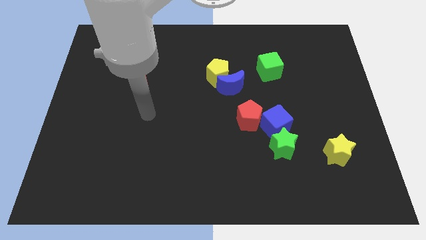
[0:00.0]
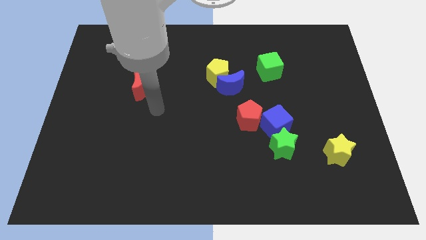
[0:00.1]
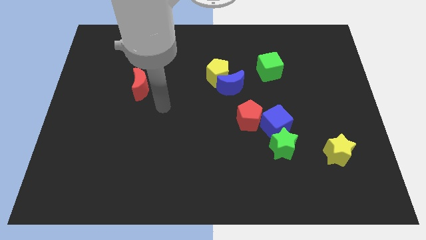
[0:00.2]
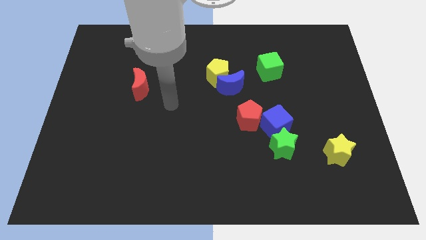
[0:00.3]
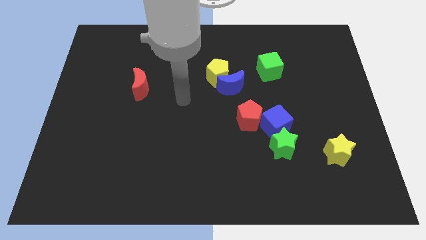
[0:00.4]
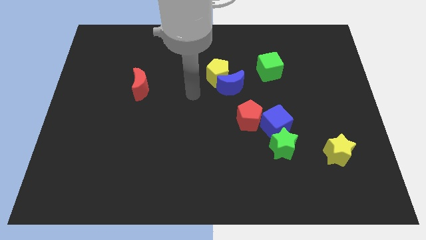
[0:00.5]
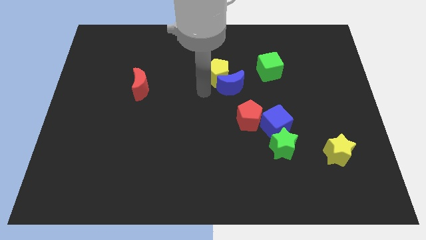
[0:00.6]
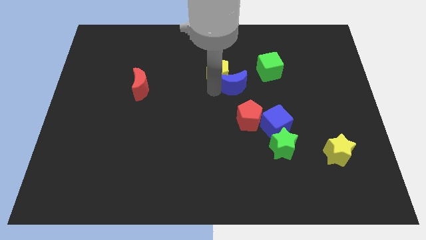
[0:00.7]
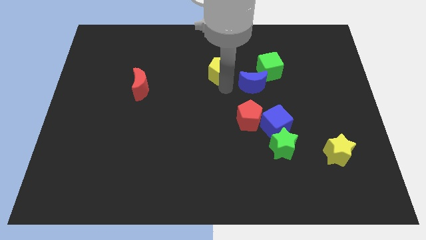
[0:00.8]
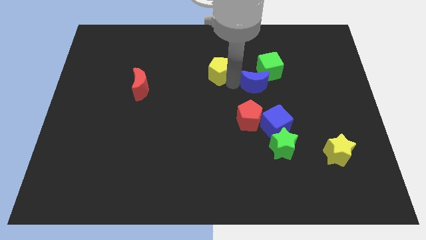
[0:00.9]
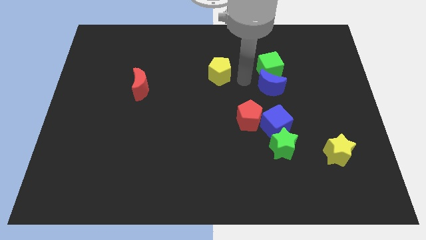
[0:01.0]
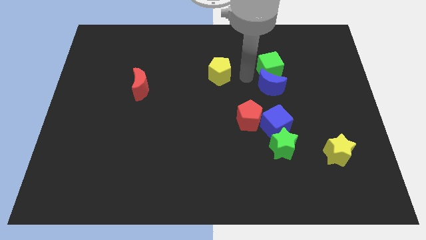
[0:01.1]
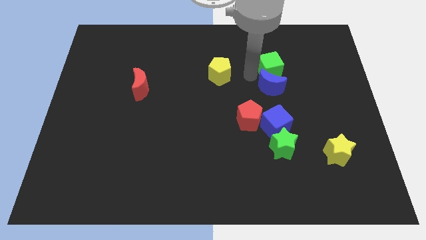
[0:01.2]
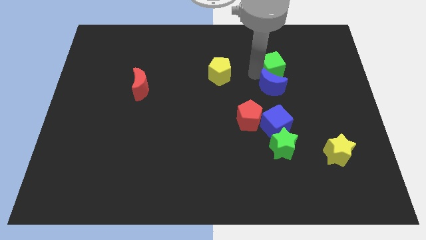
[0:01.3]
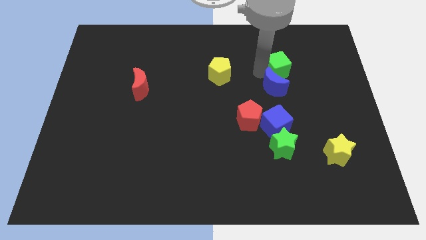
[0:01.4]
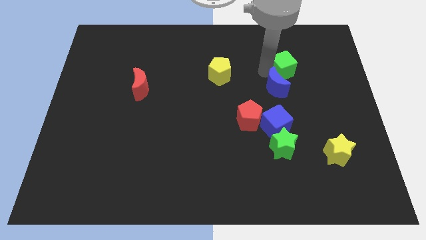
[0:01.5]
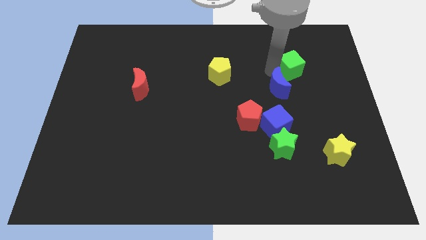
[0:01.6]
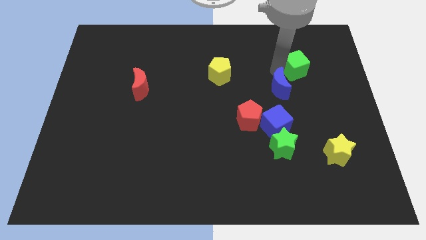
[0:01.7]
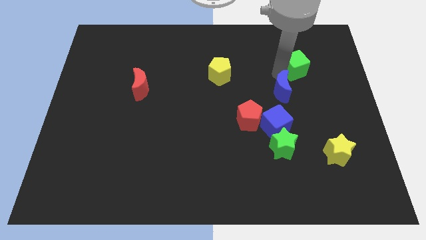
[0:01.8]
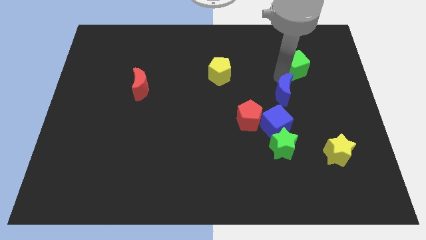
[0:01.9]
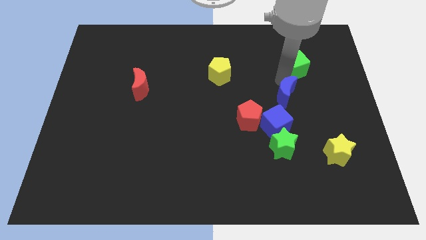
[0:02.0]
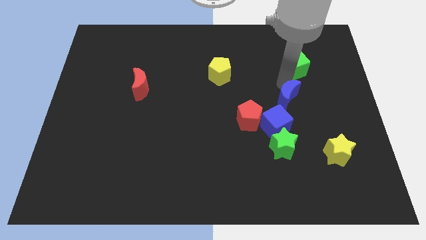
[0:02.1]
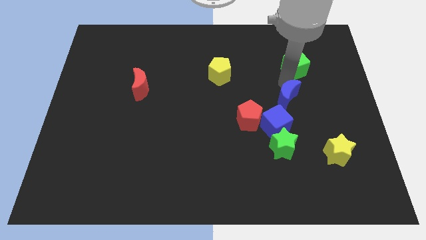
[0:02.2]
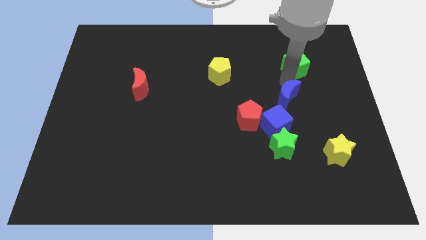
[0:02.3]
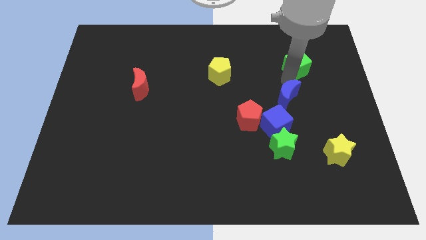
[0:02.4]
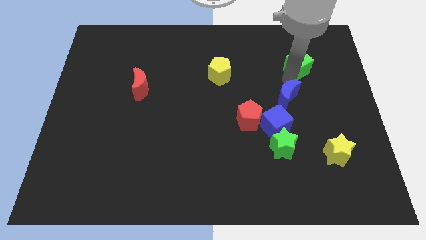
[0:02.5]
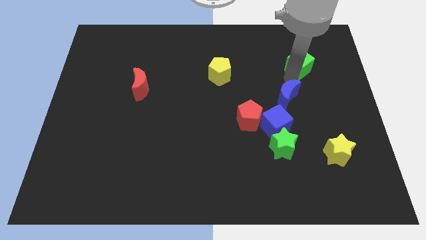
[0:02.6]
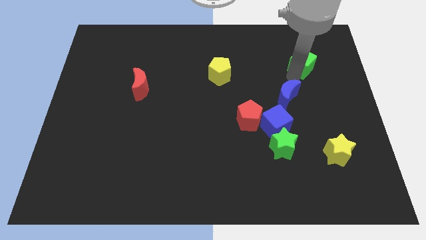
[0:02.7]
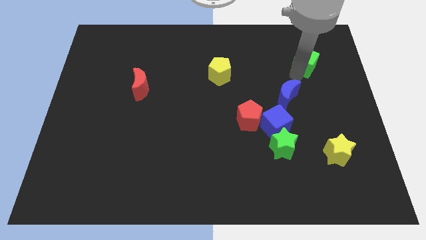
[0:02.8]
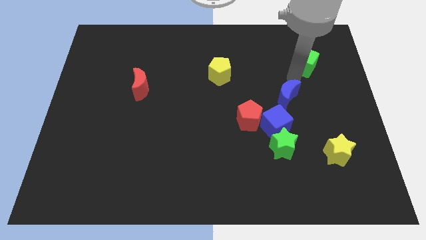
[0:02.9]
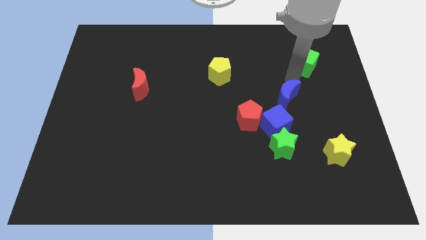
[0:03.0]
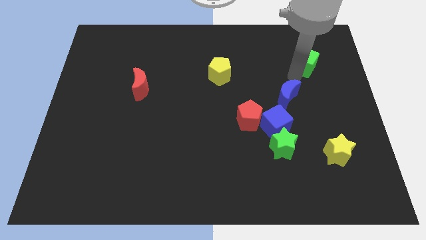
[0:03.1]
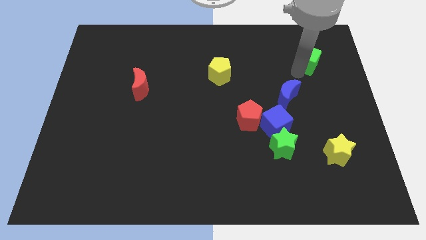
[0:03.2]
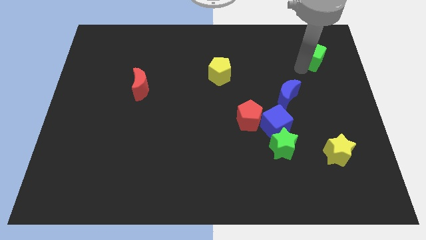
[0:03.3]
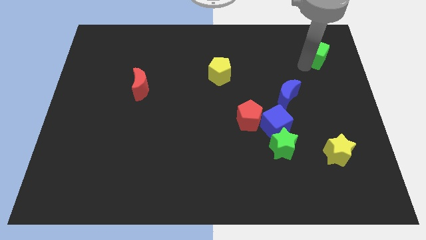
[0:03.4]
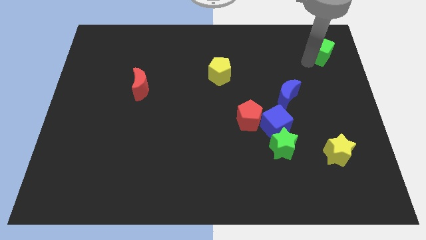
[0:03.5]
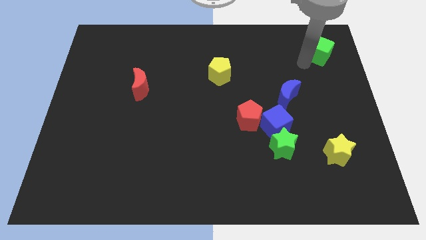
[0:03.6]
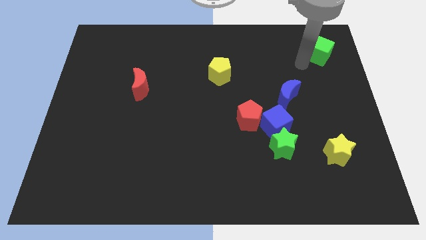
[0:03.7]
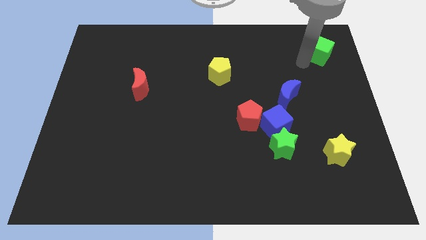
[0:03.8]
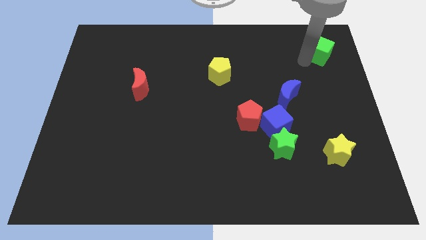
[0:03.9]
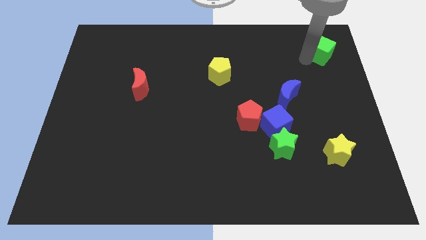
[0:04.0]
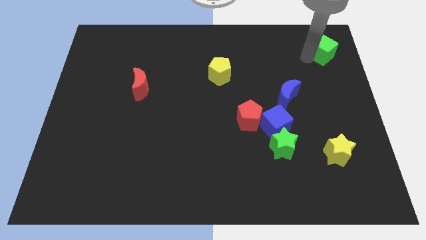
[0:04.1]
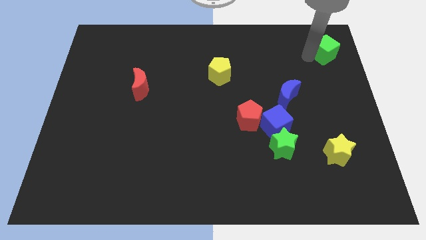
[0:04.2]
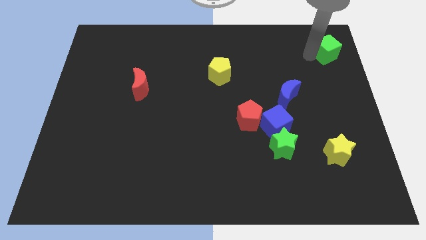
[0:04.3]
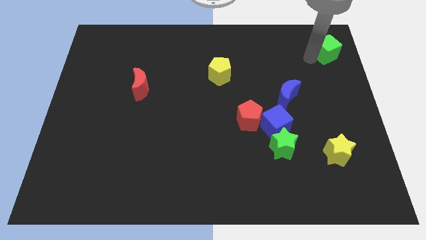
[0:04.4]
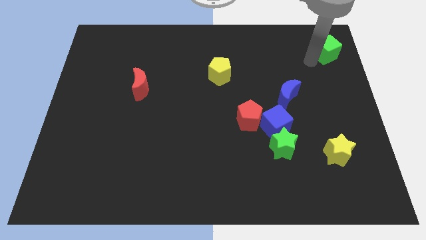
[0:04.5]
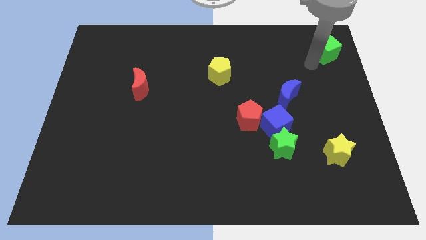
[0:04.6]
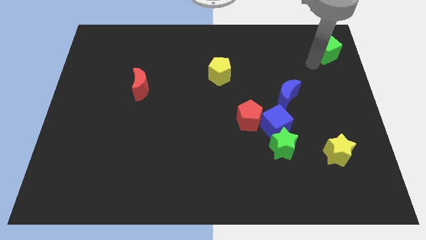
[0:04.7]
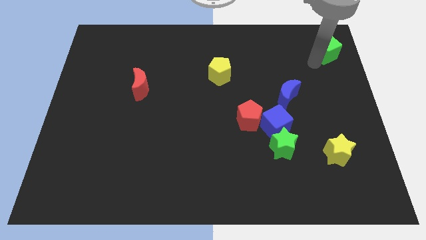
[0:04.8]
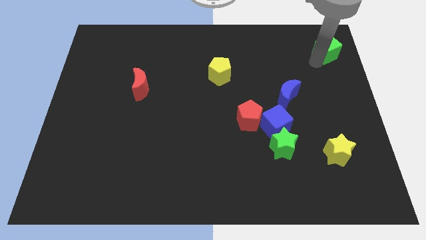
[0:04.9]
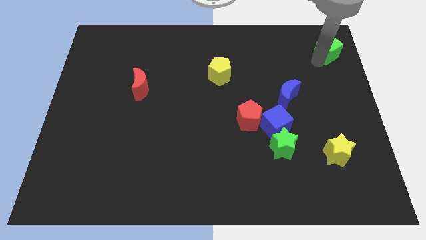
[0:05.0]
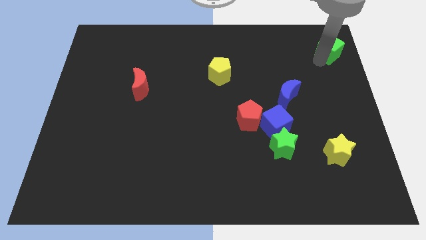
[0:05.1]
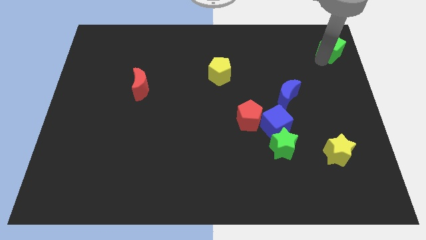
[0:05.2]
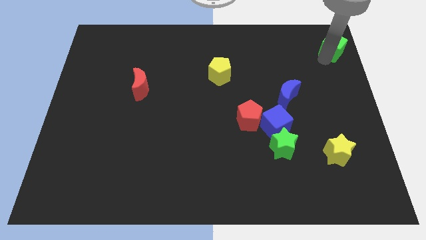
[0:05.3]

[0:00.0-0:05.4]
put the green cube to the top right

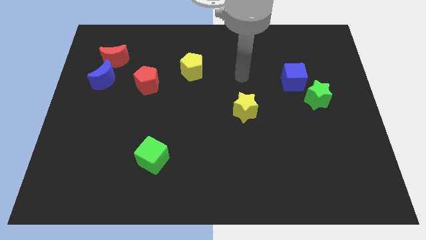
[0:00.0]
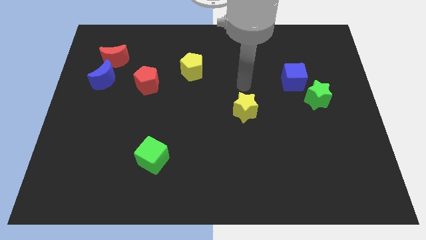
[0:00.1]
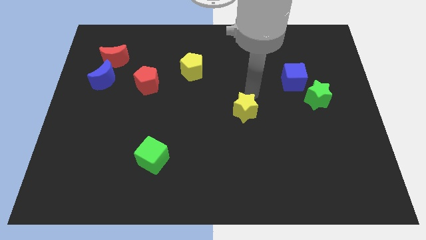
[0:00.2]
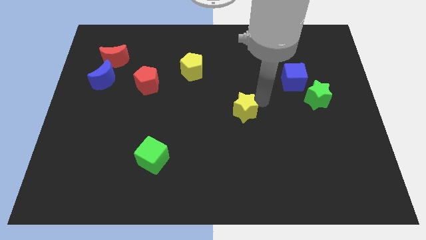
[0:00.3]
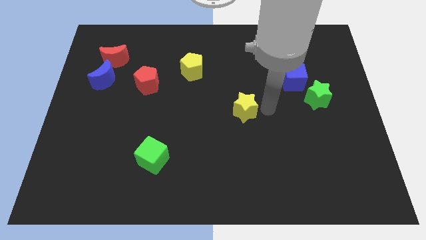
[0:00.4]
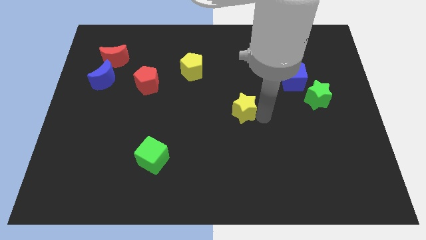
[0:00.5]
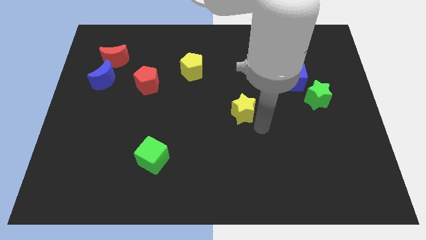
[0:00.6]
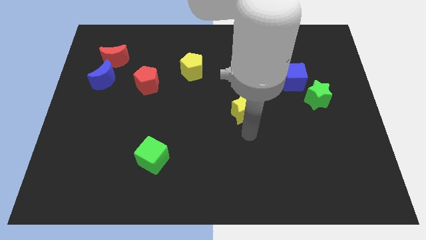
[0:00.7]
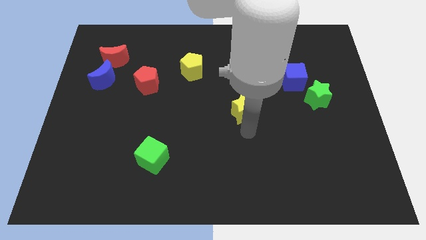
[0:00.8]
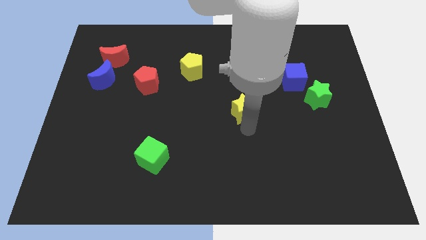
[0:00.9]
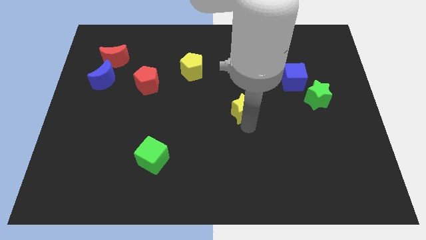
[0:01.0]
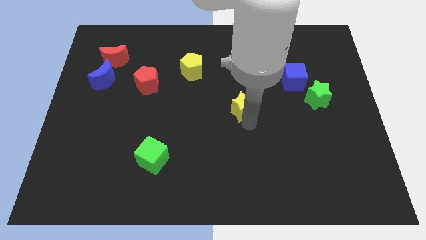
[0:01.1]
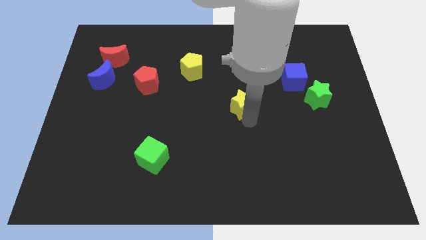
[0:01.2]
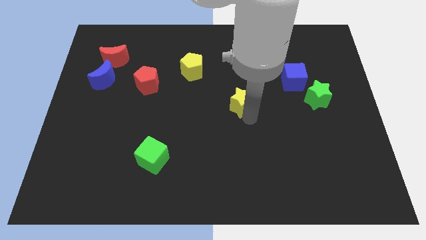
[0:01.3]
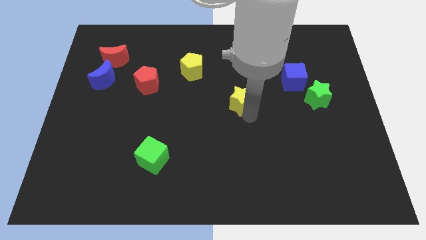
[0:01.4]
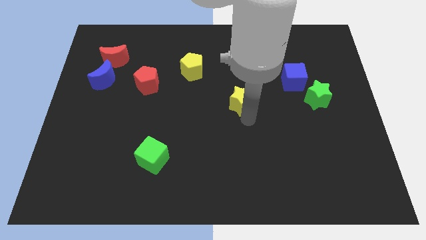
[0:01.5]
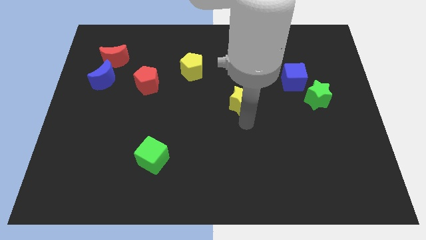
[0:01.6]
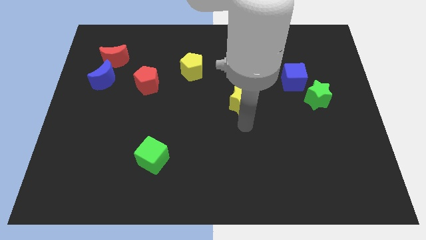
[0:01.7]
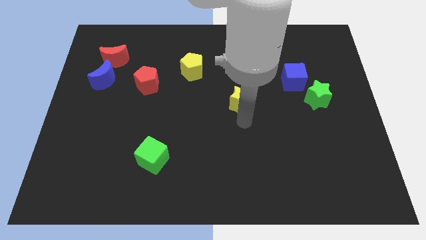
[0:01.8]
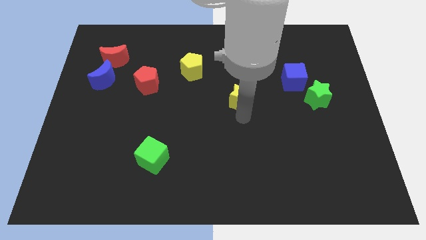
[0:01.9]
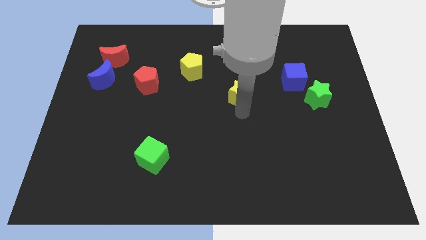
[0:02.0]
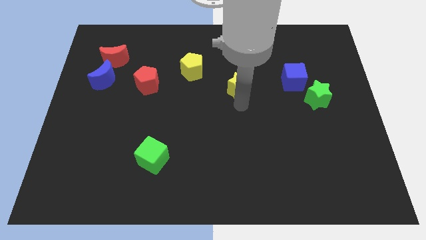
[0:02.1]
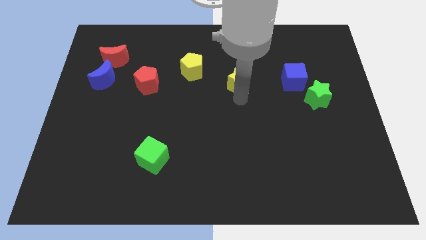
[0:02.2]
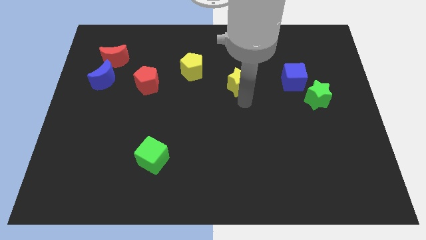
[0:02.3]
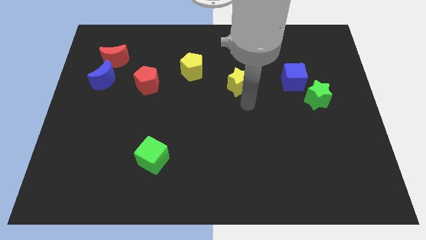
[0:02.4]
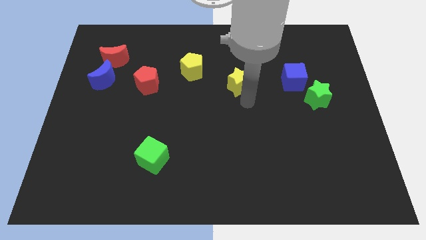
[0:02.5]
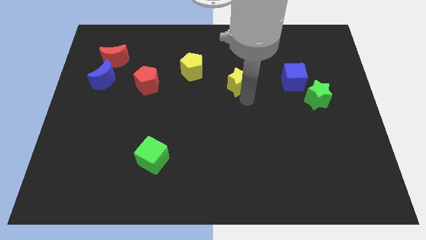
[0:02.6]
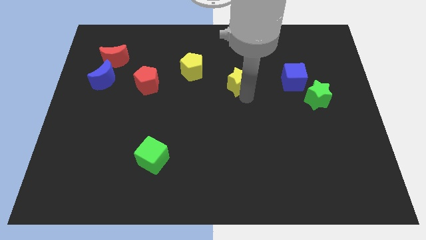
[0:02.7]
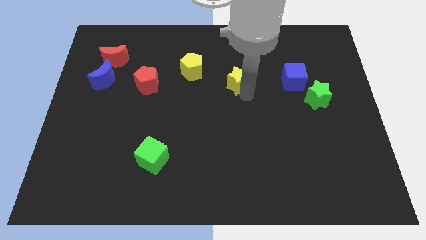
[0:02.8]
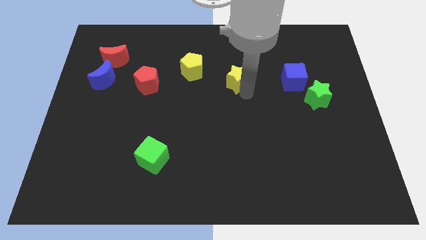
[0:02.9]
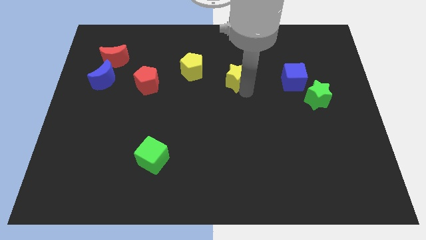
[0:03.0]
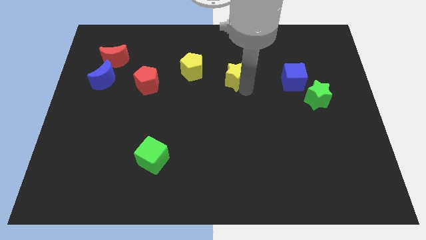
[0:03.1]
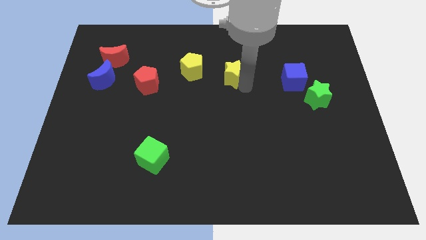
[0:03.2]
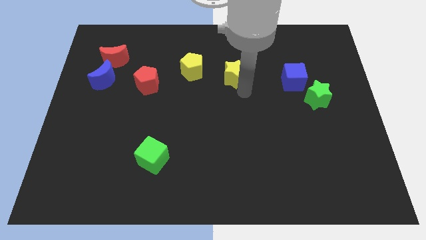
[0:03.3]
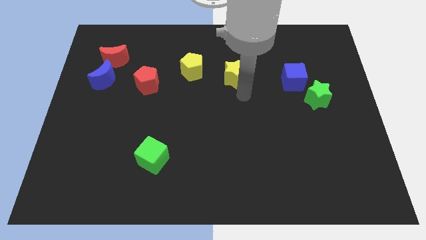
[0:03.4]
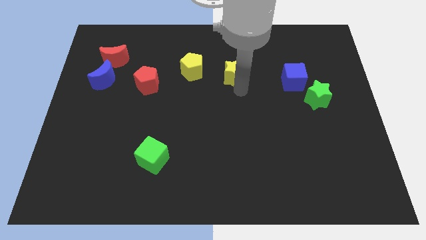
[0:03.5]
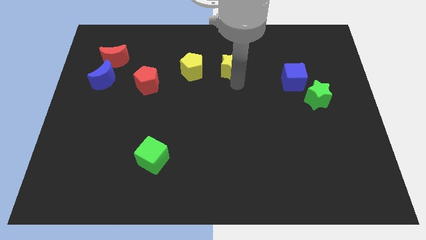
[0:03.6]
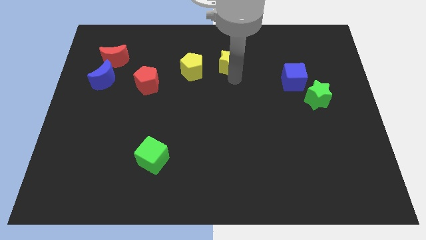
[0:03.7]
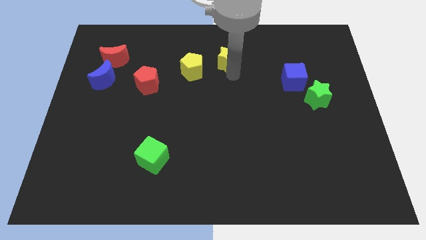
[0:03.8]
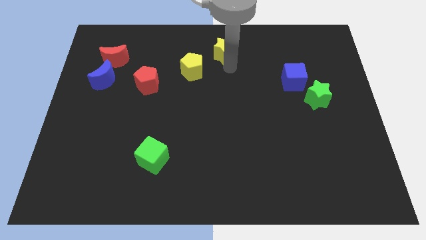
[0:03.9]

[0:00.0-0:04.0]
slide the yellow star to the towards your base
